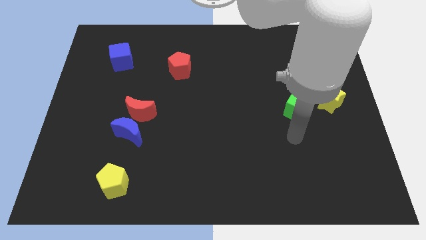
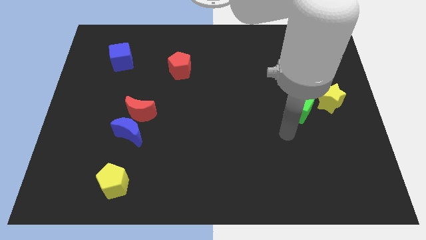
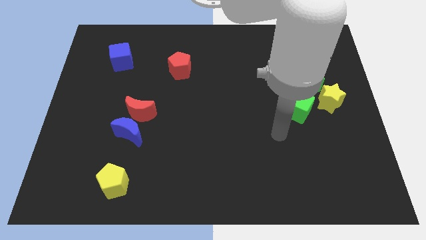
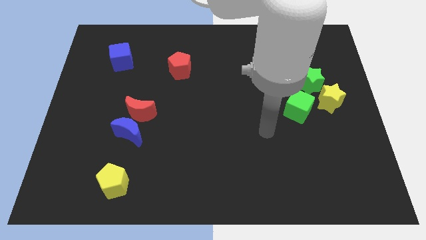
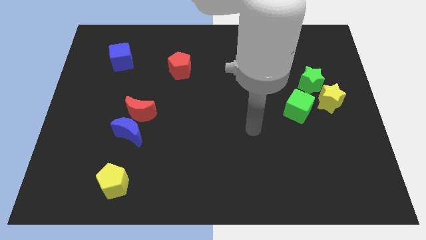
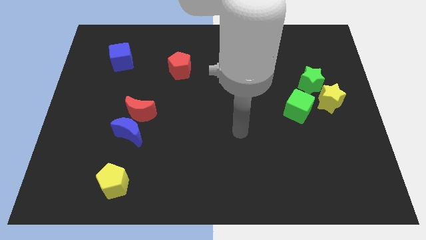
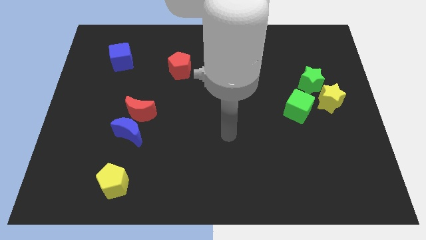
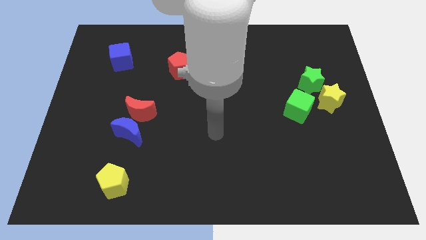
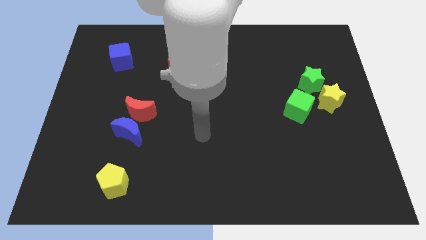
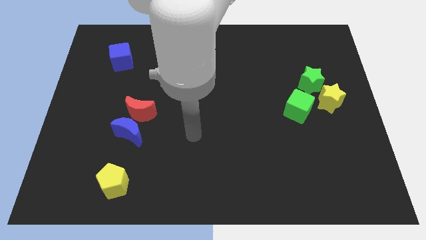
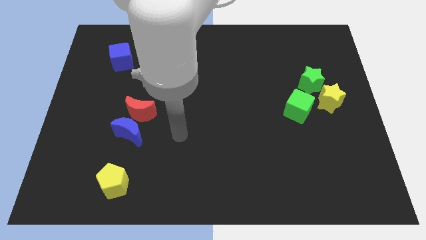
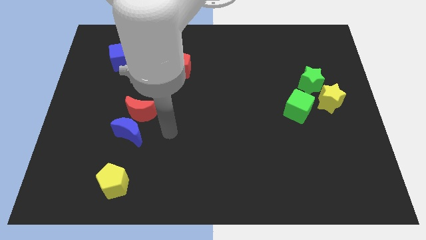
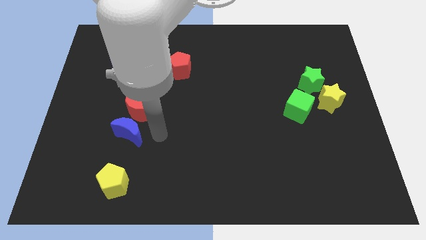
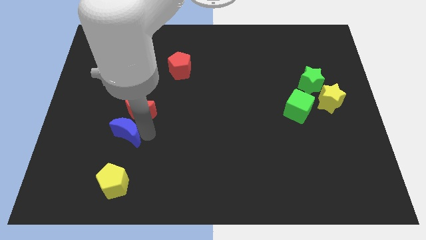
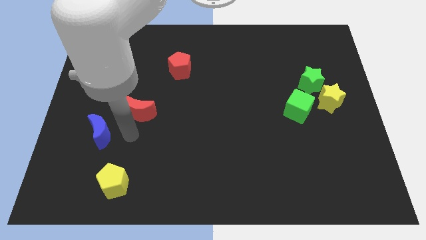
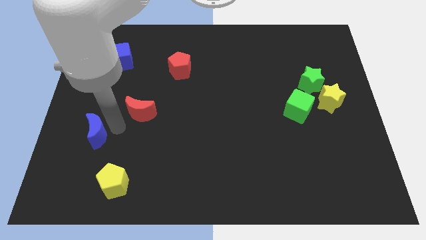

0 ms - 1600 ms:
separate the red moon from the blue moon

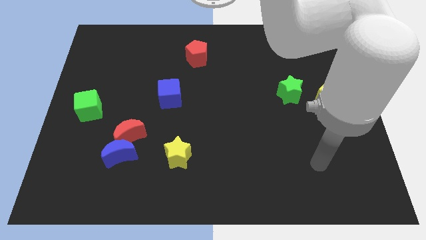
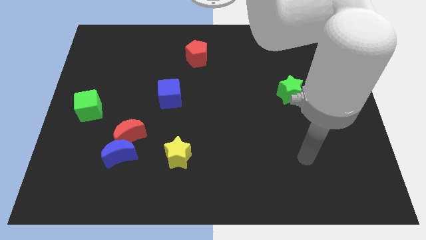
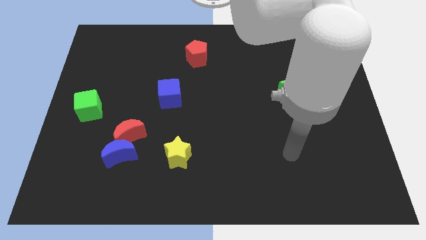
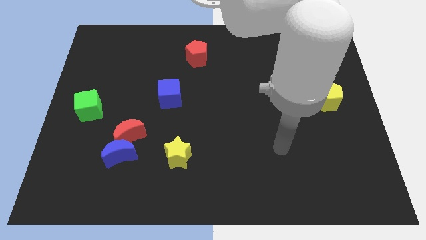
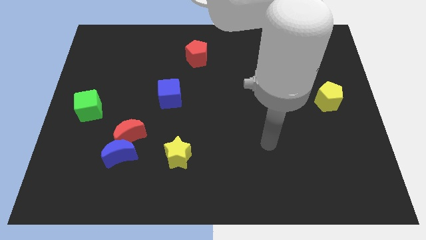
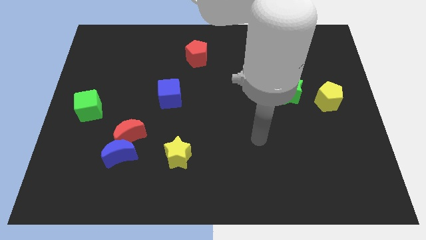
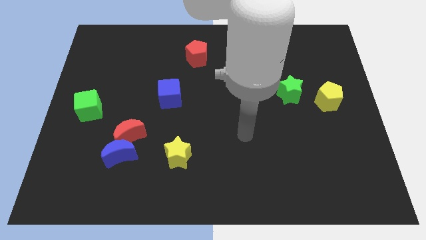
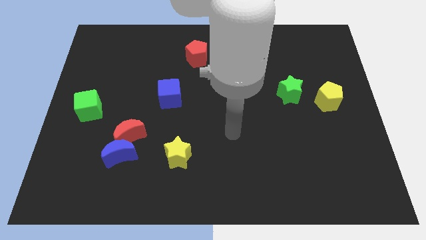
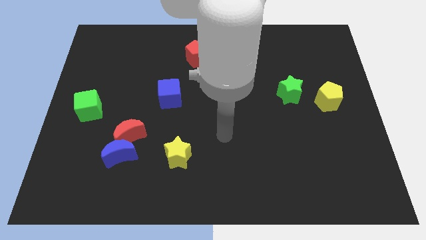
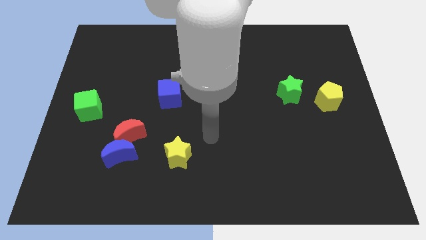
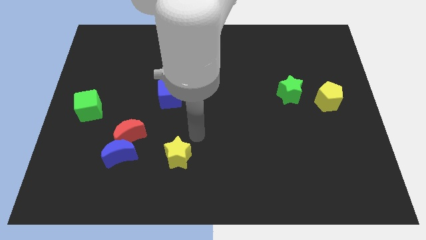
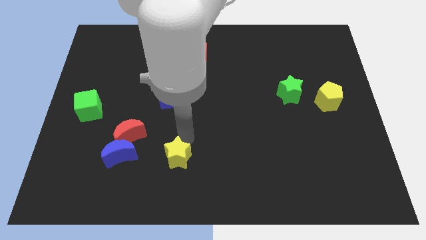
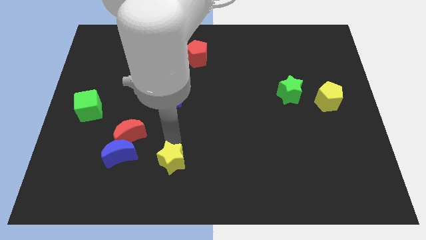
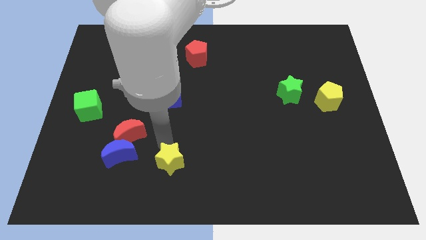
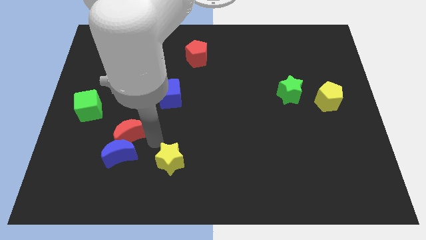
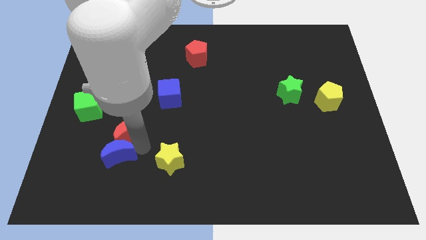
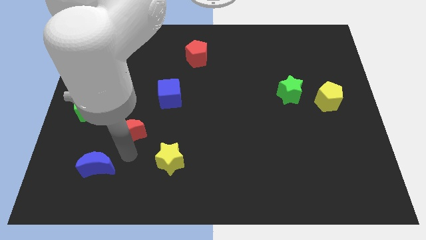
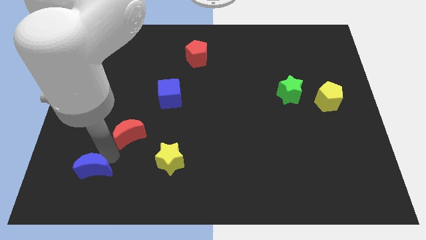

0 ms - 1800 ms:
move the red moon away from the blue moon

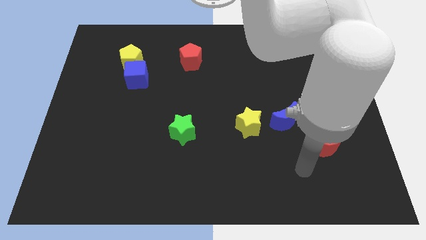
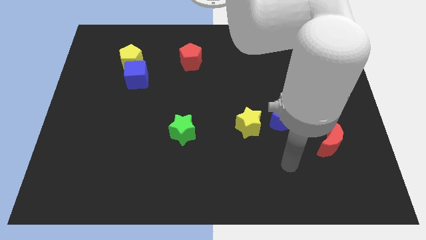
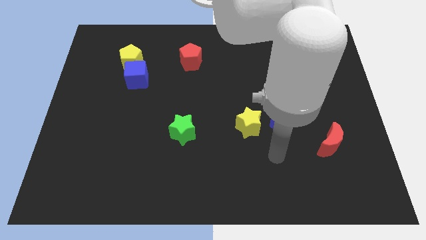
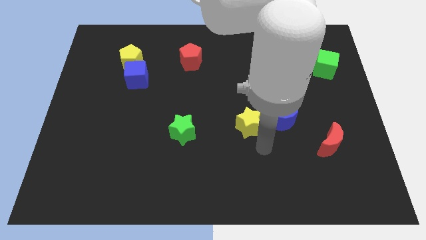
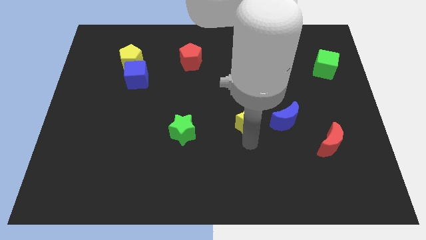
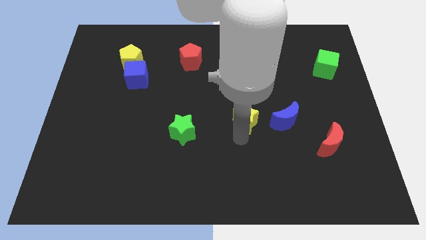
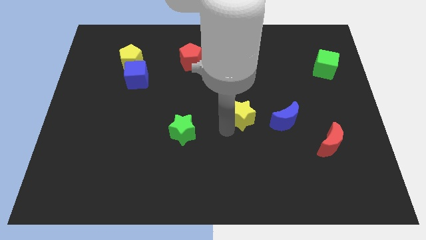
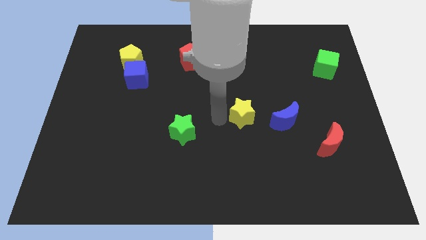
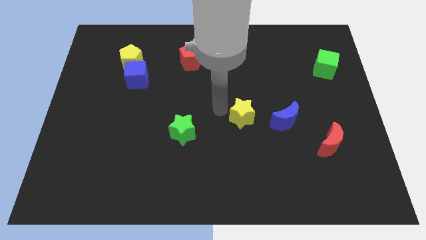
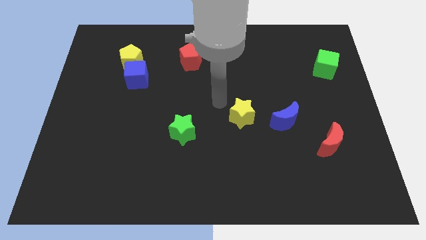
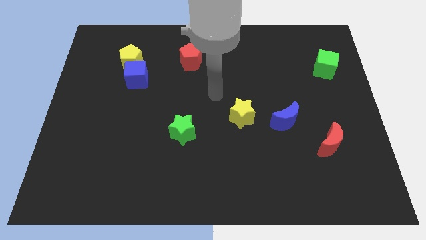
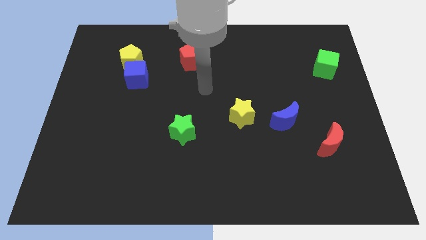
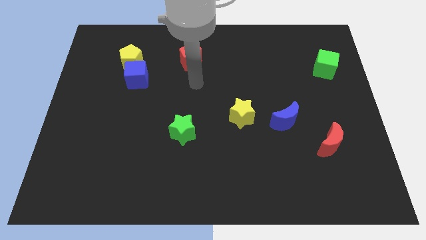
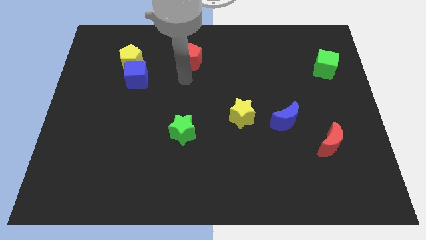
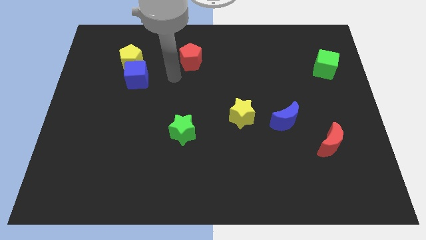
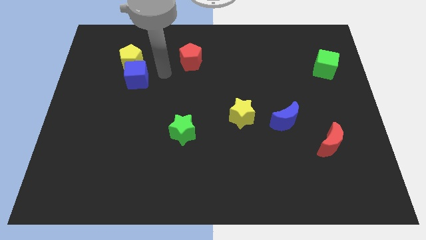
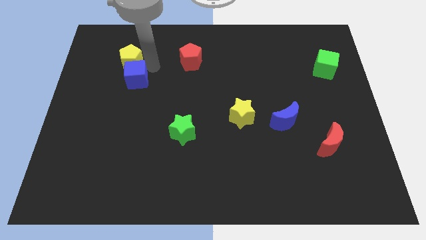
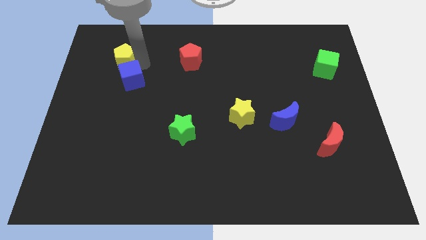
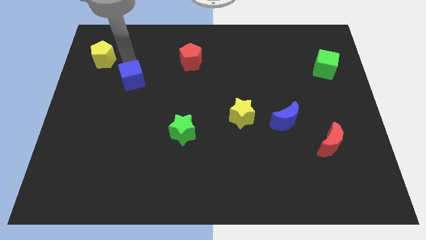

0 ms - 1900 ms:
move the blue cube away from the yellow pentagon

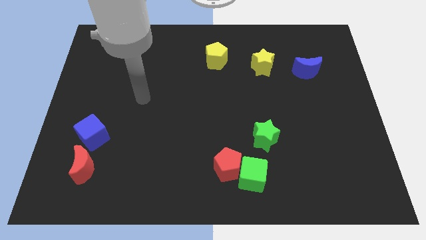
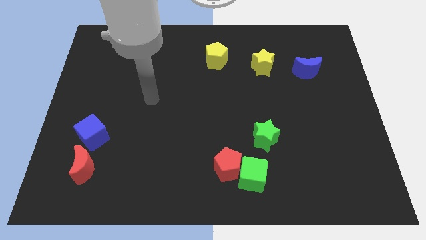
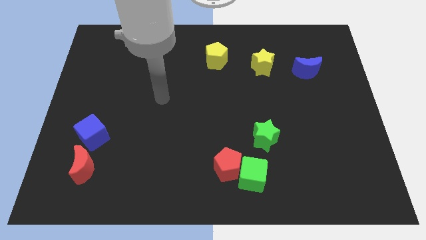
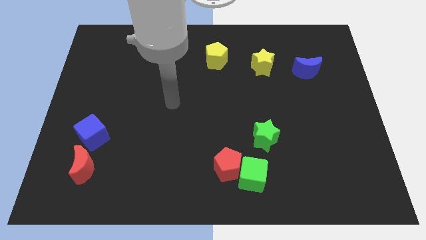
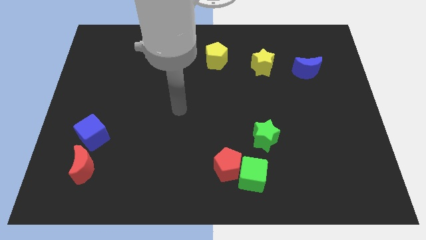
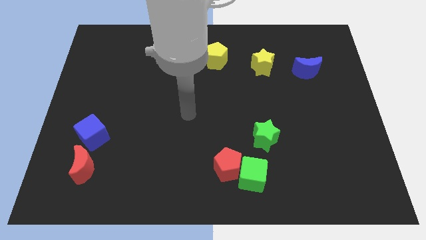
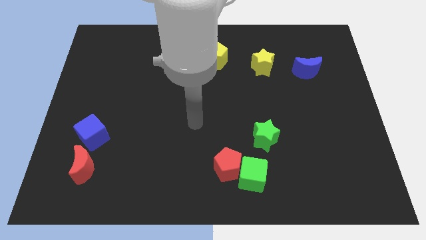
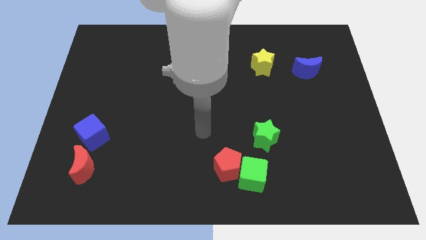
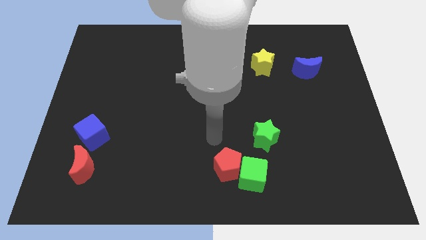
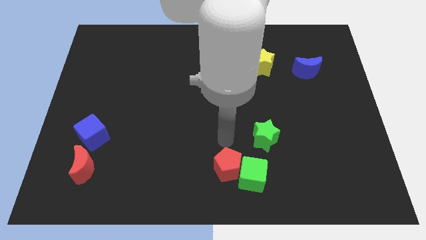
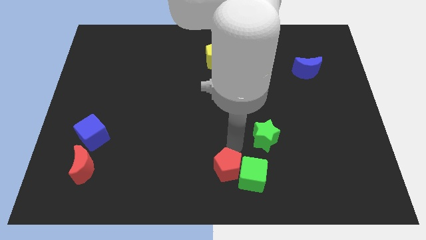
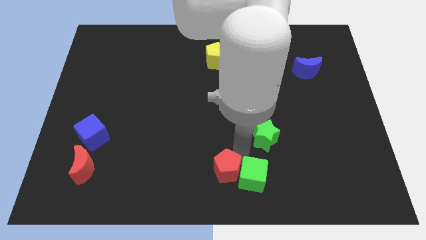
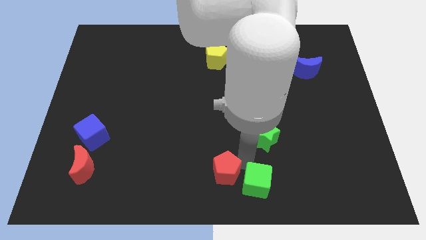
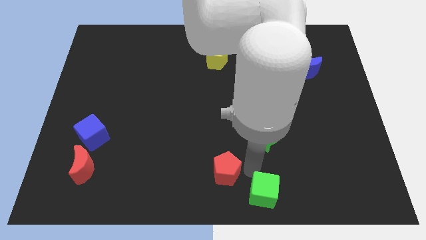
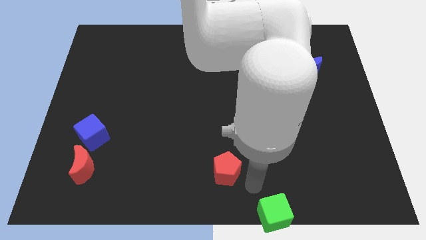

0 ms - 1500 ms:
pull the red pentagon apart from the green cube

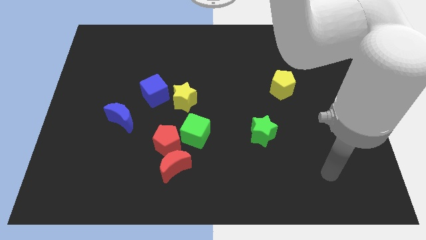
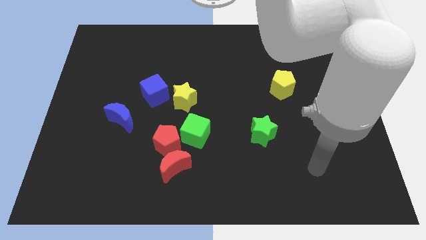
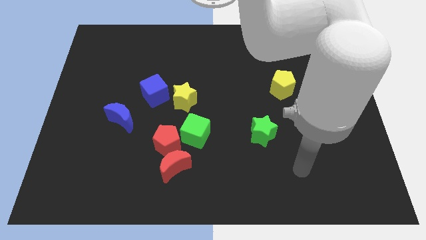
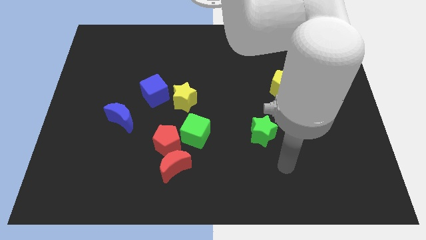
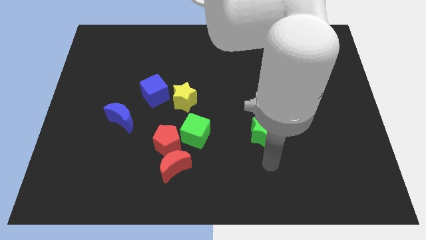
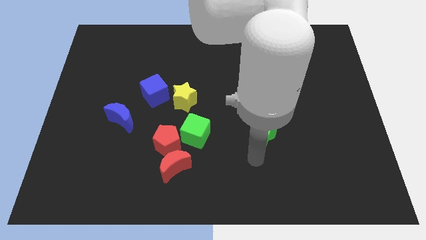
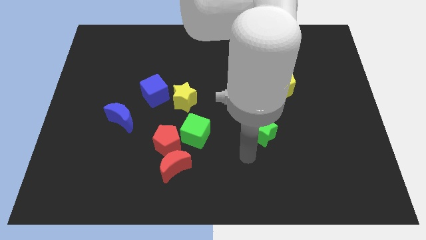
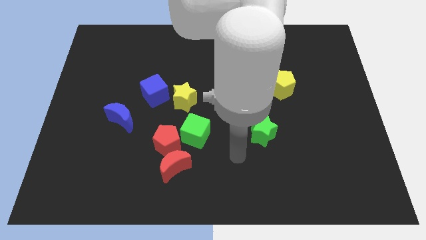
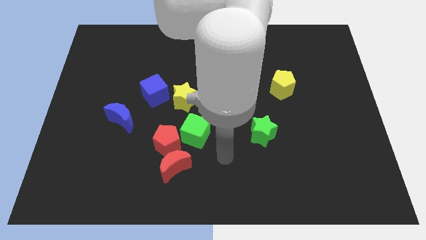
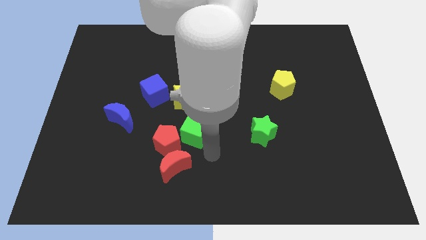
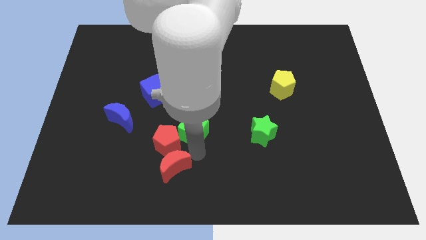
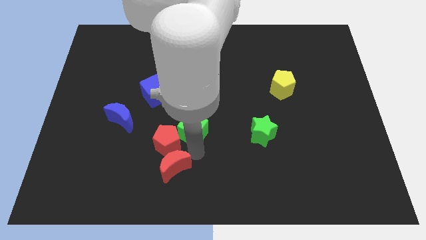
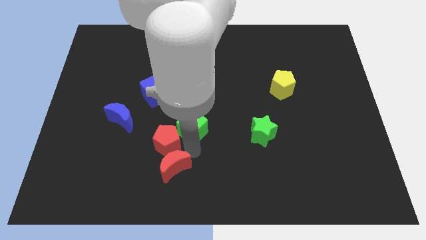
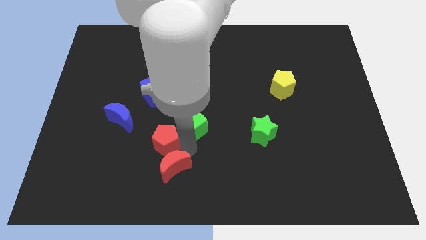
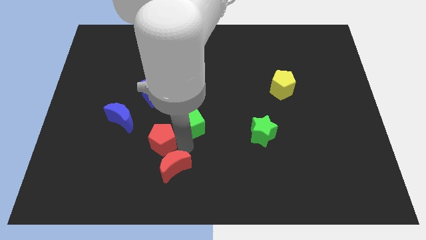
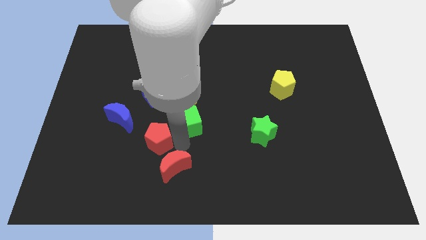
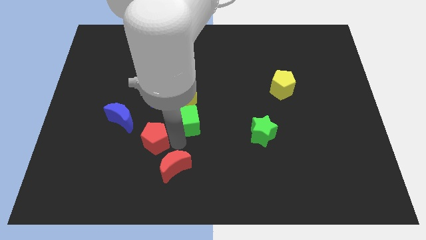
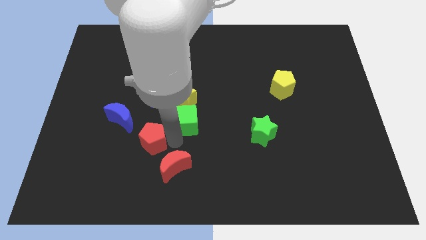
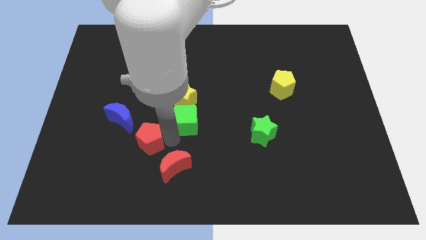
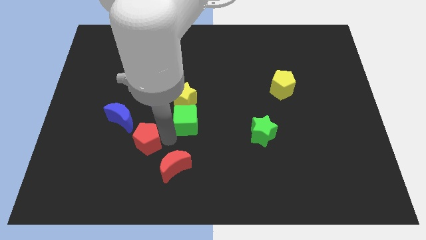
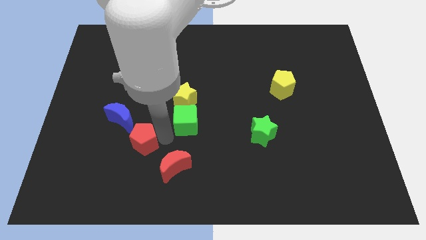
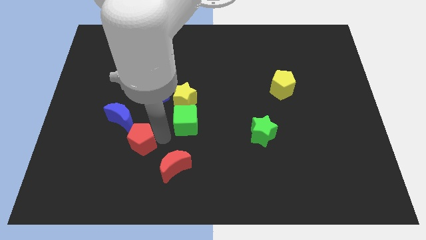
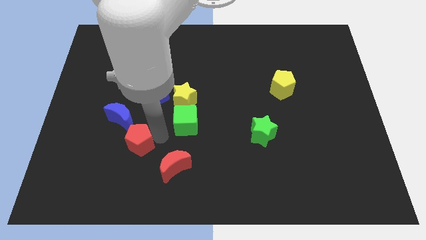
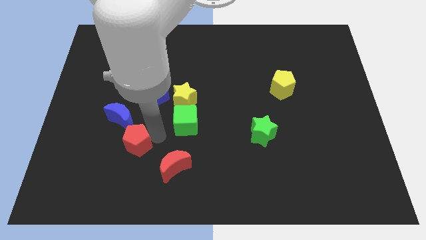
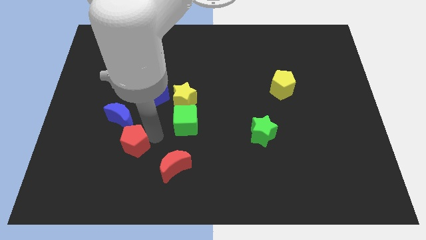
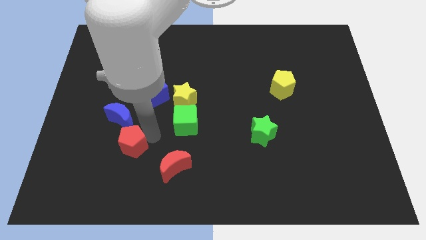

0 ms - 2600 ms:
move the red pentagon away from the red moon and green cube
